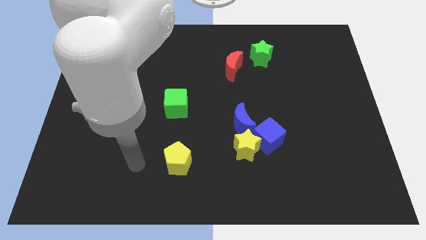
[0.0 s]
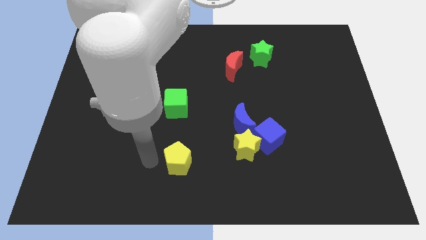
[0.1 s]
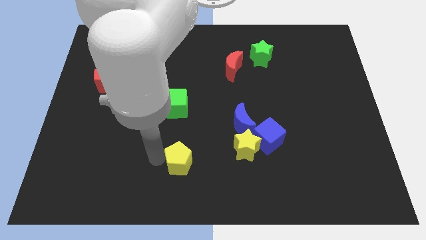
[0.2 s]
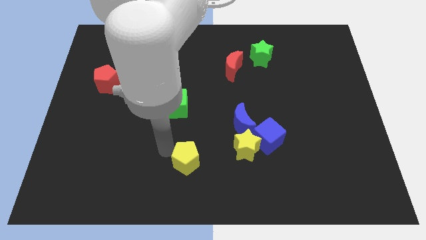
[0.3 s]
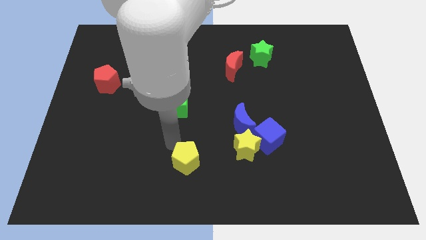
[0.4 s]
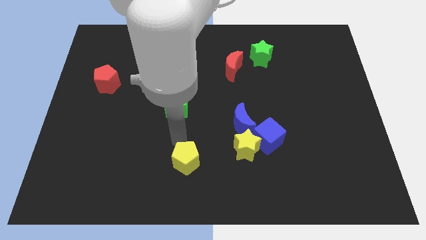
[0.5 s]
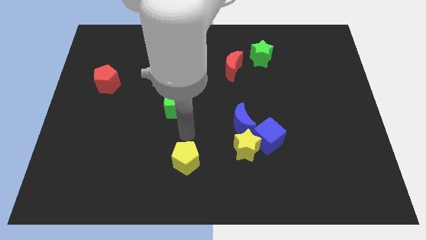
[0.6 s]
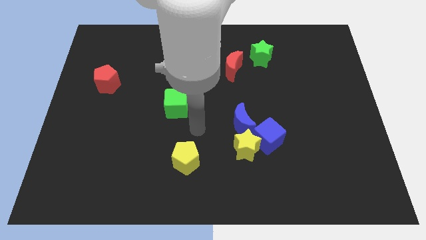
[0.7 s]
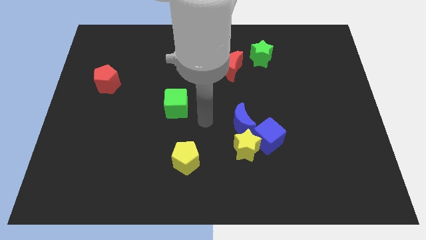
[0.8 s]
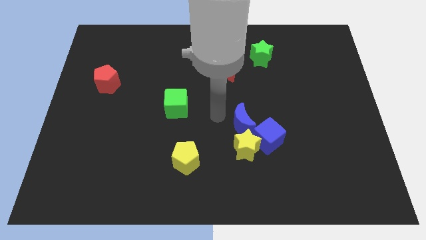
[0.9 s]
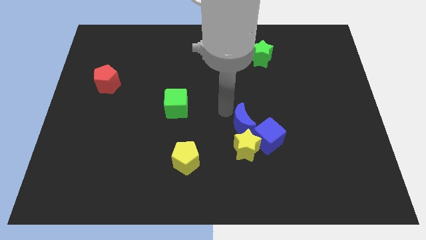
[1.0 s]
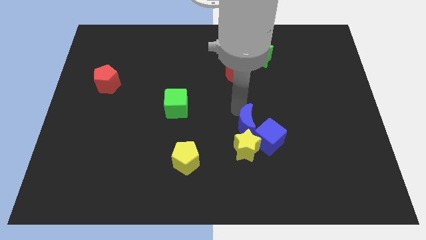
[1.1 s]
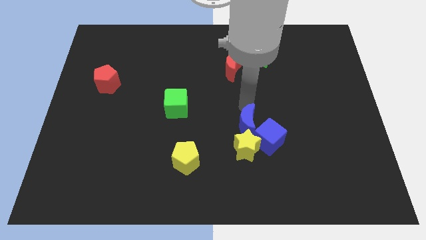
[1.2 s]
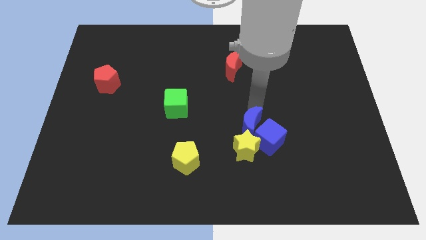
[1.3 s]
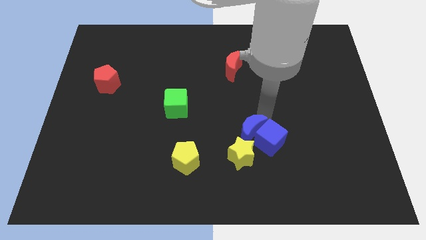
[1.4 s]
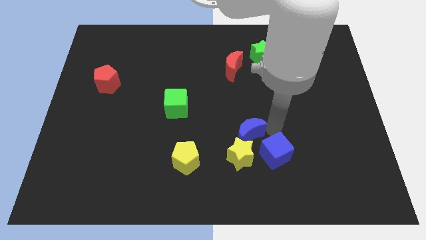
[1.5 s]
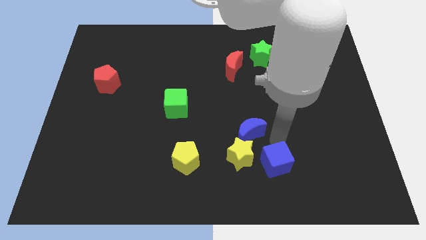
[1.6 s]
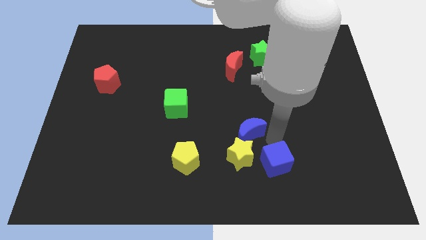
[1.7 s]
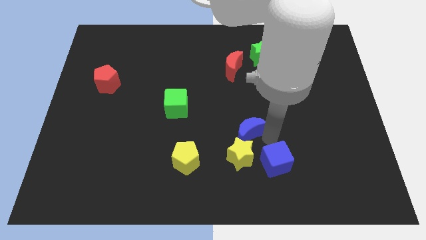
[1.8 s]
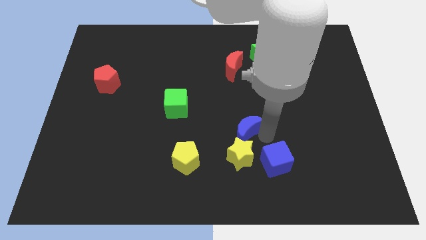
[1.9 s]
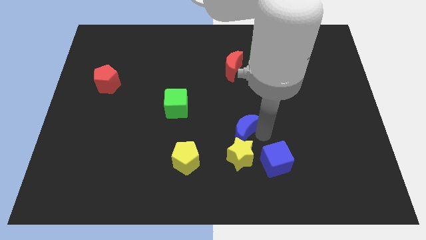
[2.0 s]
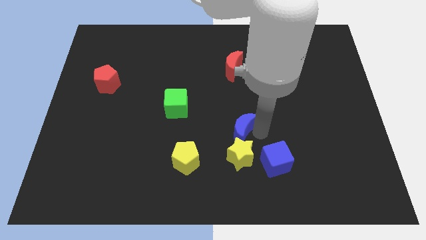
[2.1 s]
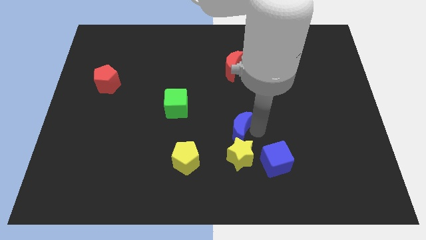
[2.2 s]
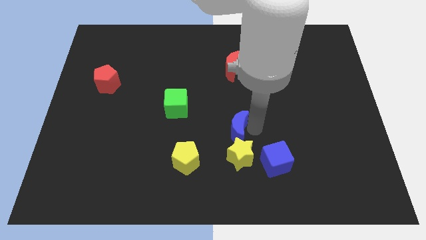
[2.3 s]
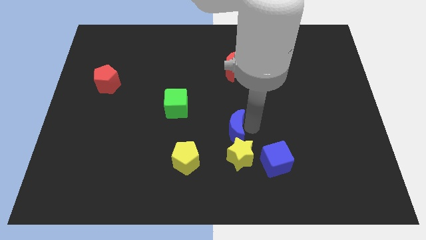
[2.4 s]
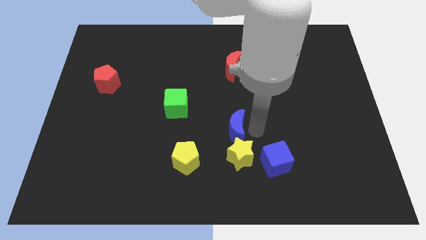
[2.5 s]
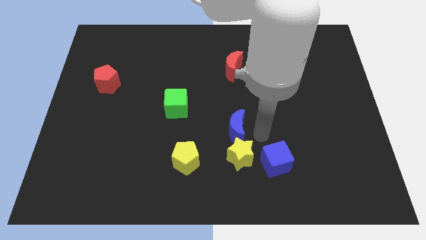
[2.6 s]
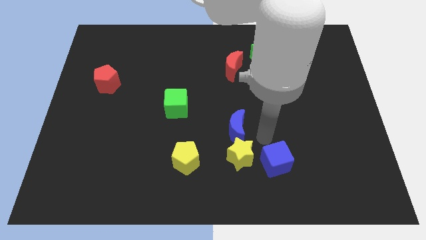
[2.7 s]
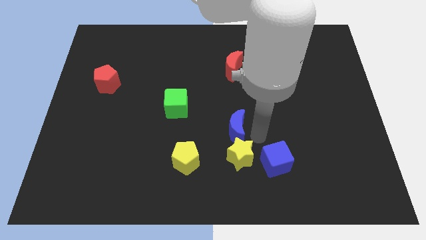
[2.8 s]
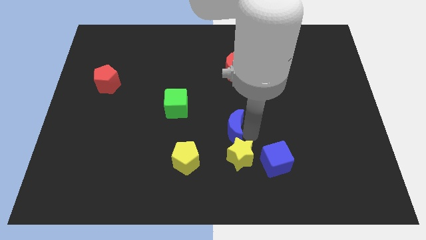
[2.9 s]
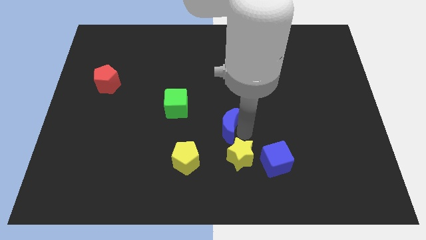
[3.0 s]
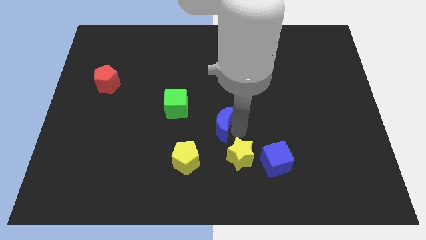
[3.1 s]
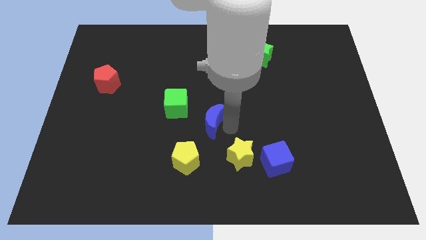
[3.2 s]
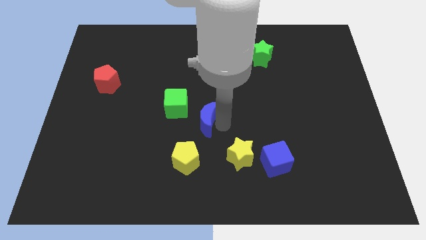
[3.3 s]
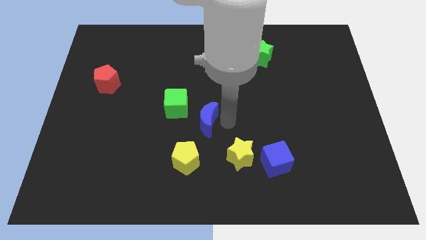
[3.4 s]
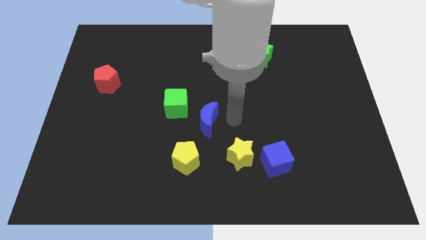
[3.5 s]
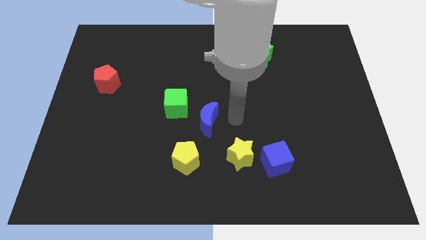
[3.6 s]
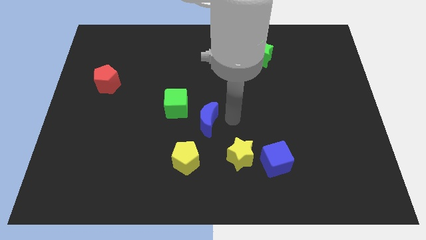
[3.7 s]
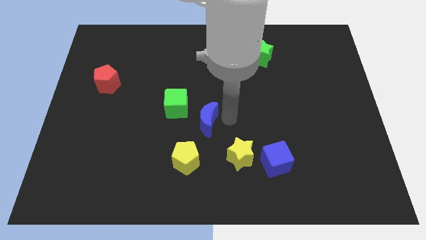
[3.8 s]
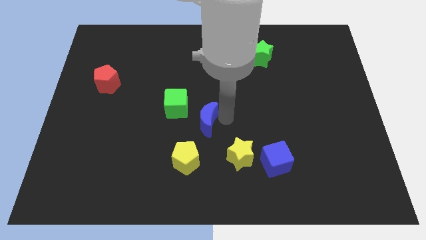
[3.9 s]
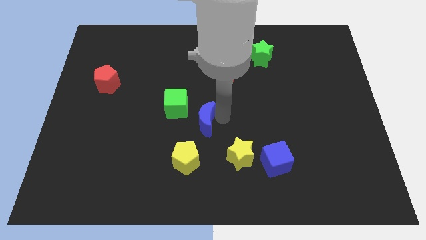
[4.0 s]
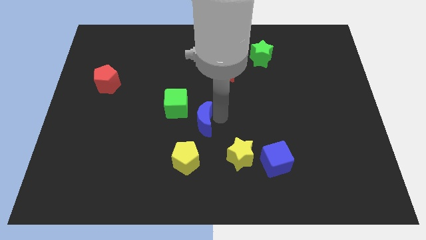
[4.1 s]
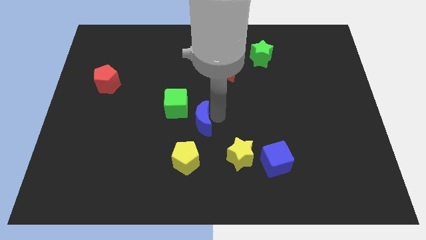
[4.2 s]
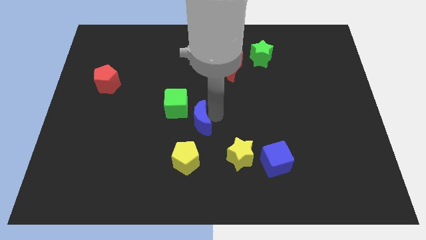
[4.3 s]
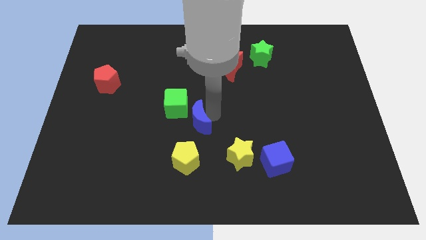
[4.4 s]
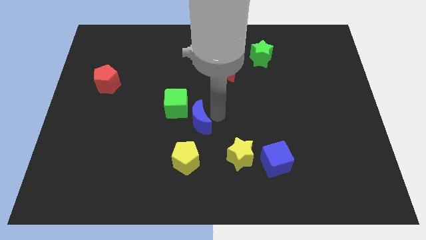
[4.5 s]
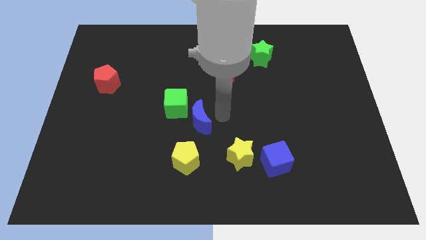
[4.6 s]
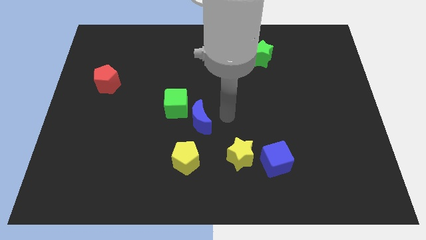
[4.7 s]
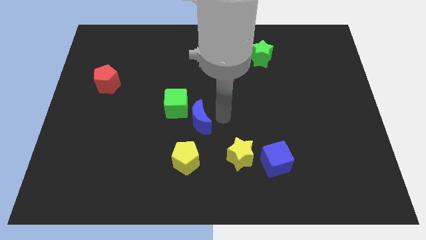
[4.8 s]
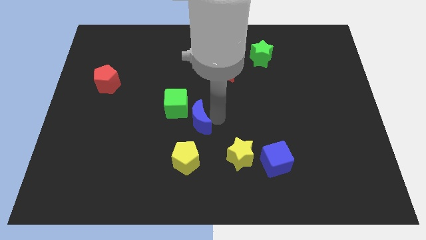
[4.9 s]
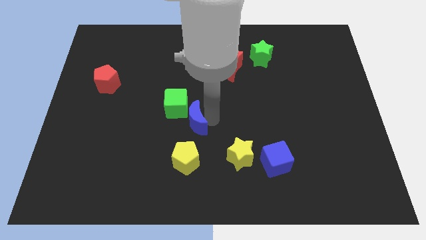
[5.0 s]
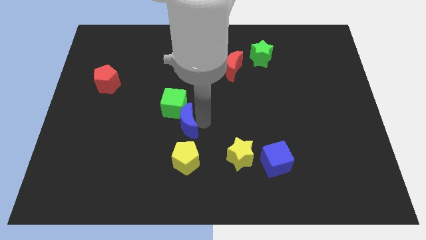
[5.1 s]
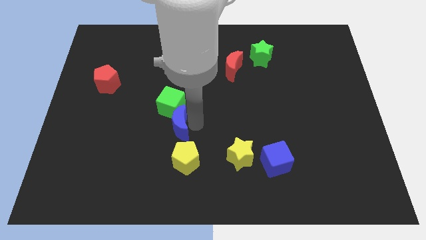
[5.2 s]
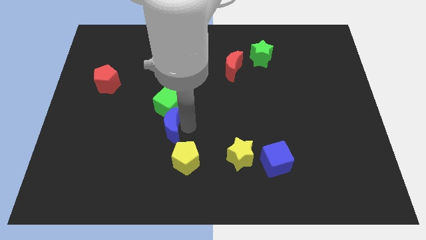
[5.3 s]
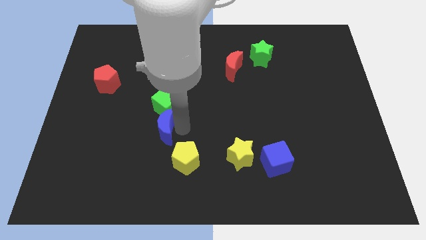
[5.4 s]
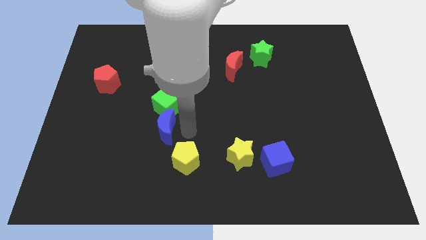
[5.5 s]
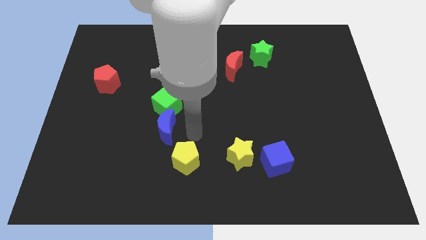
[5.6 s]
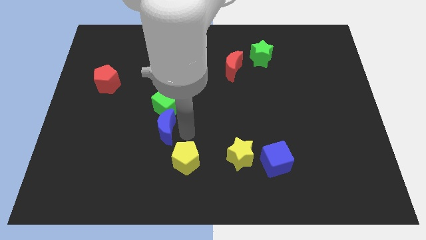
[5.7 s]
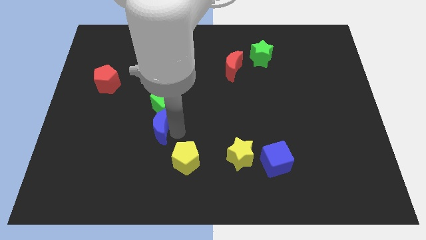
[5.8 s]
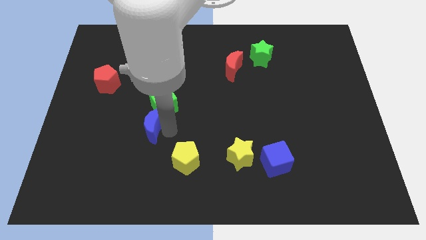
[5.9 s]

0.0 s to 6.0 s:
push the blue moon to the left

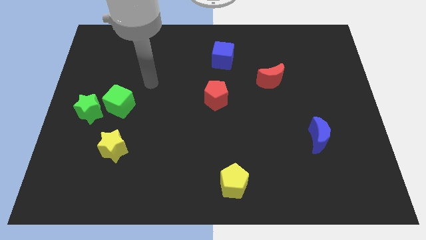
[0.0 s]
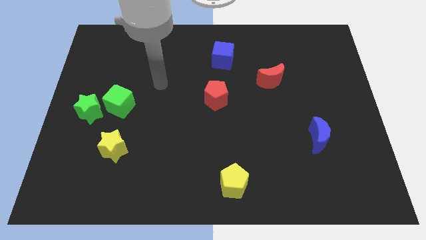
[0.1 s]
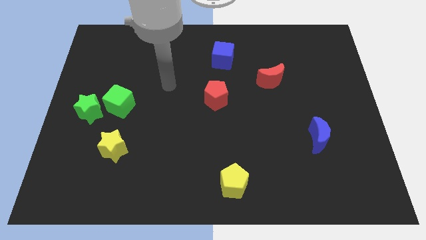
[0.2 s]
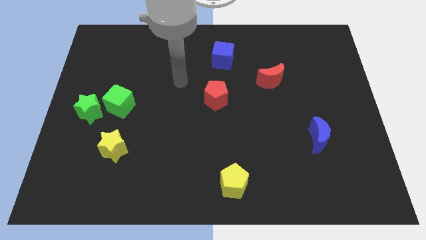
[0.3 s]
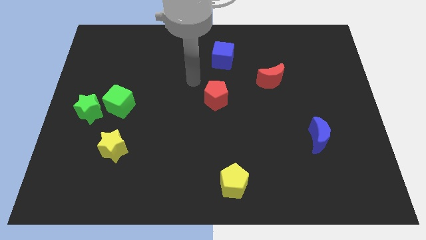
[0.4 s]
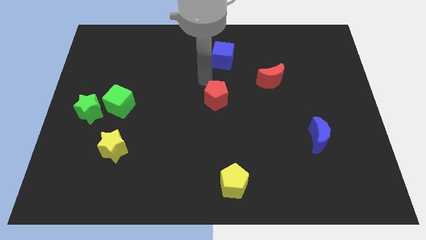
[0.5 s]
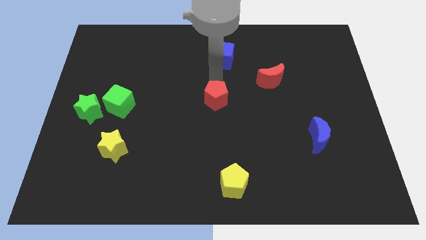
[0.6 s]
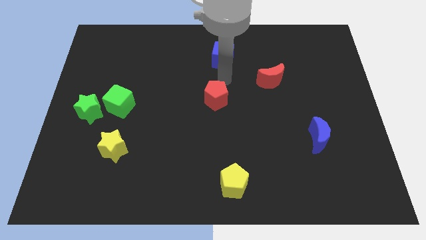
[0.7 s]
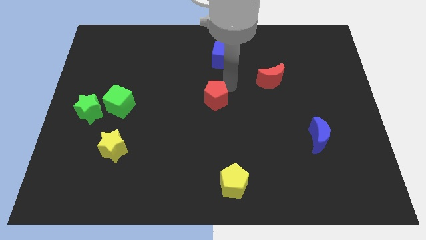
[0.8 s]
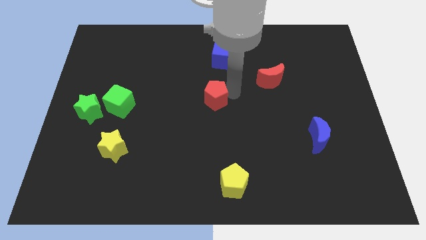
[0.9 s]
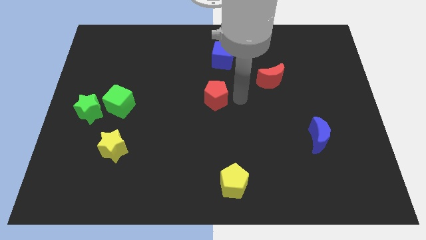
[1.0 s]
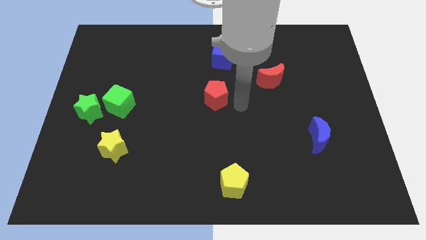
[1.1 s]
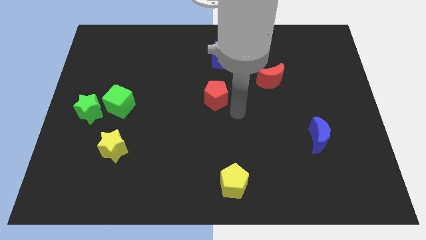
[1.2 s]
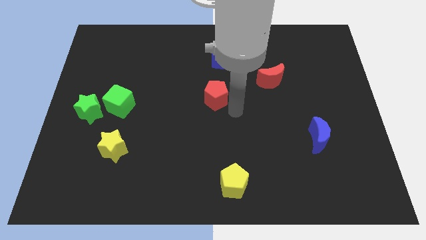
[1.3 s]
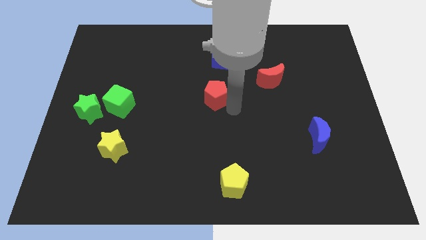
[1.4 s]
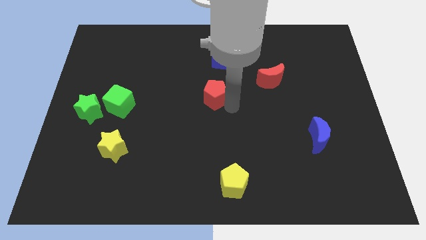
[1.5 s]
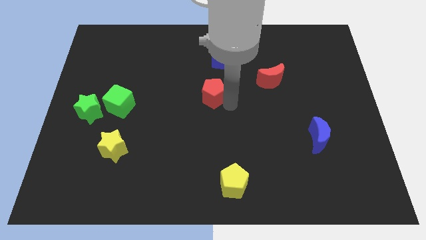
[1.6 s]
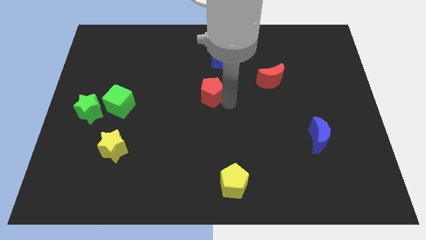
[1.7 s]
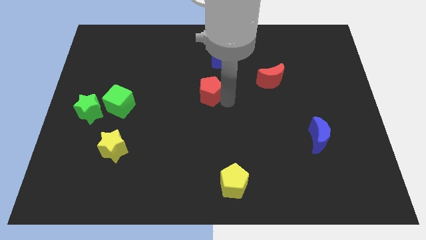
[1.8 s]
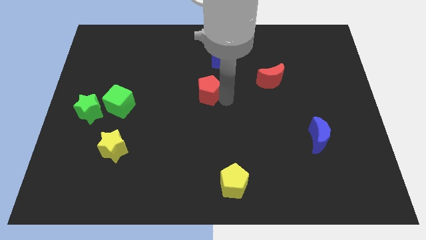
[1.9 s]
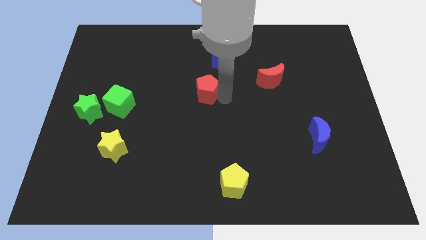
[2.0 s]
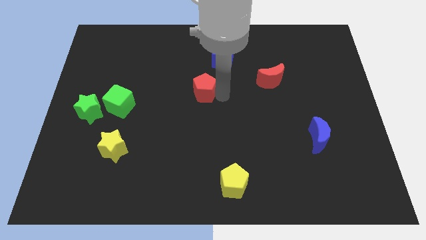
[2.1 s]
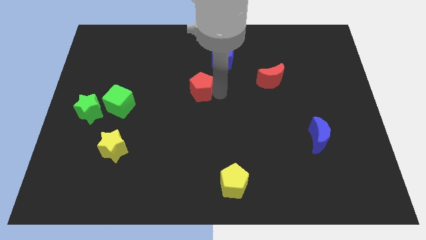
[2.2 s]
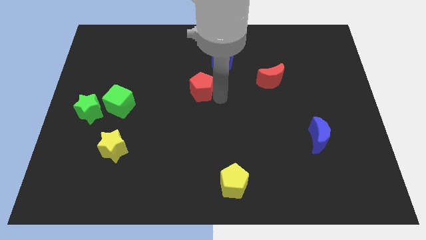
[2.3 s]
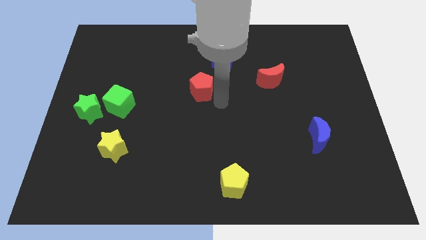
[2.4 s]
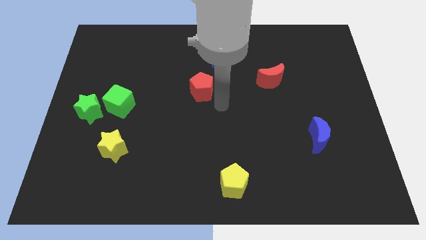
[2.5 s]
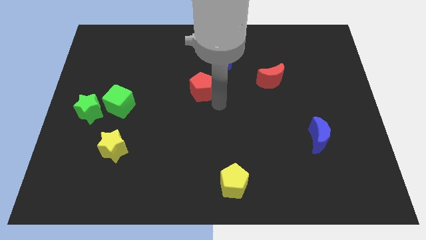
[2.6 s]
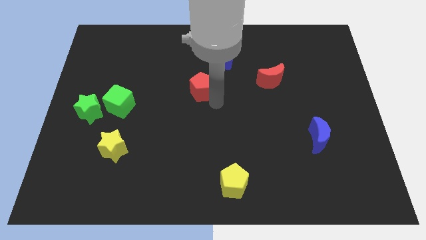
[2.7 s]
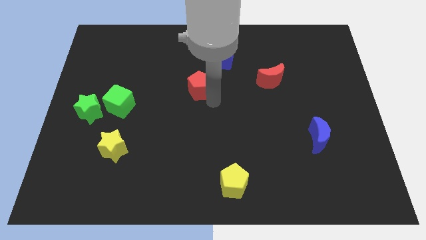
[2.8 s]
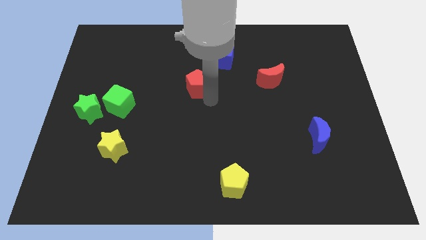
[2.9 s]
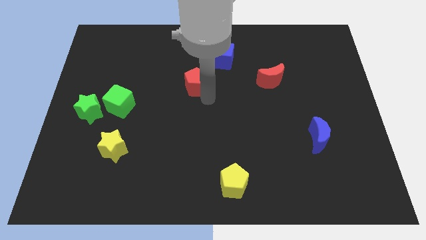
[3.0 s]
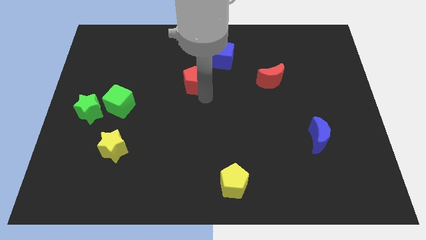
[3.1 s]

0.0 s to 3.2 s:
move the red pentagon up and to the left diagonally a little
